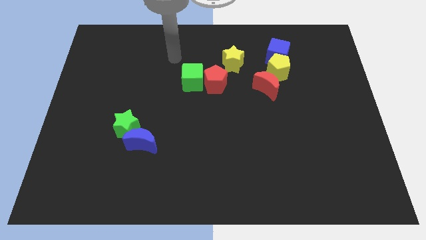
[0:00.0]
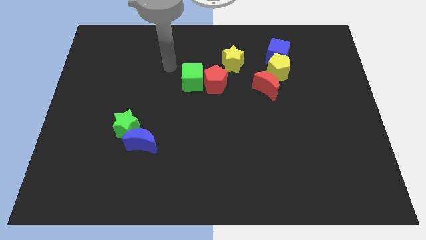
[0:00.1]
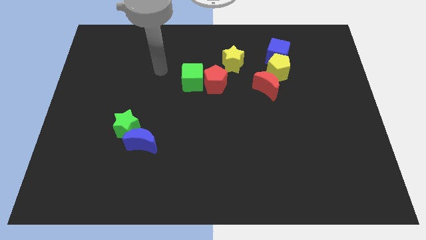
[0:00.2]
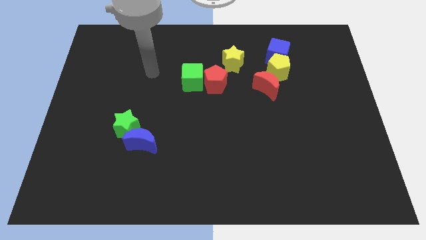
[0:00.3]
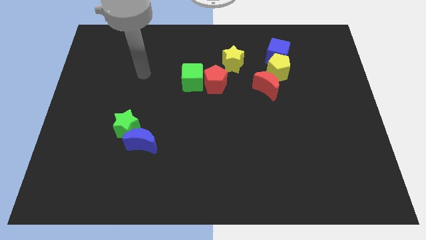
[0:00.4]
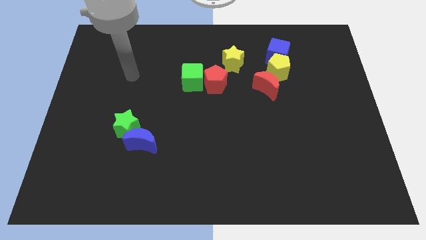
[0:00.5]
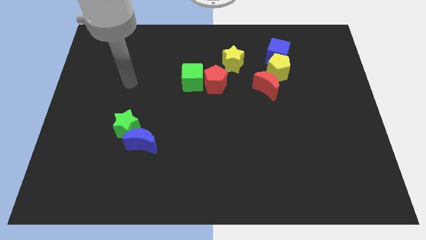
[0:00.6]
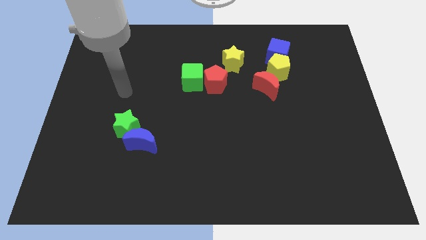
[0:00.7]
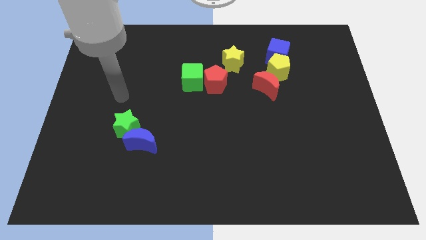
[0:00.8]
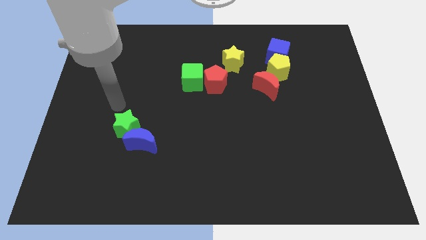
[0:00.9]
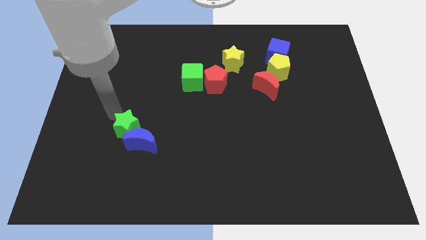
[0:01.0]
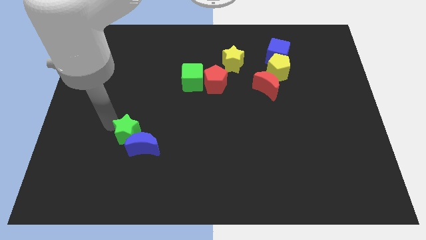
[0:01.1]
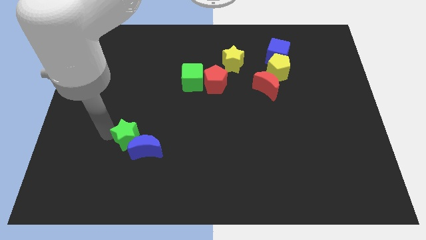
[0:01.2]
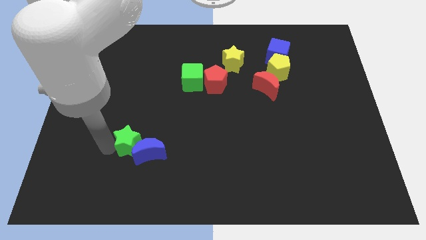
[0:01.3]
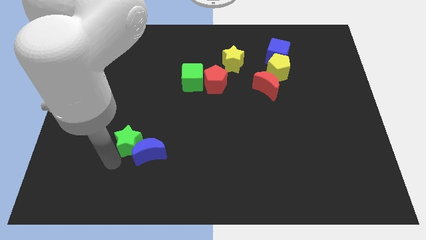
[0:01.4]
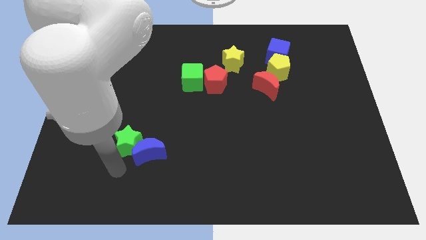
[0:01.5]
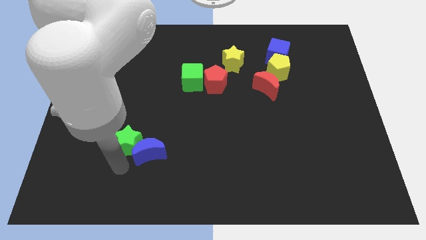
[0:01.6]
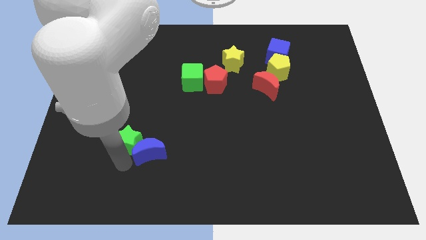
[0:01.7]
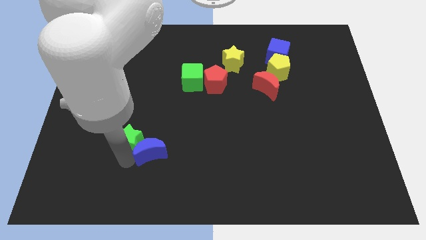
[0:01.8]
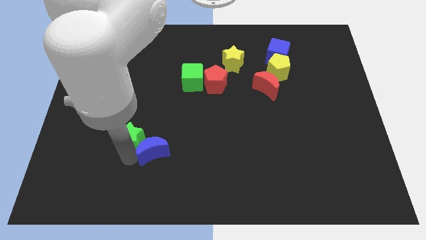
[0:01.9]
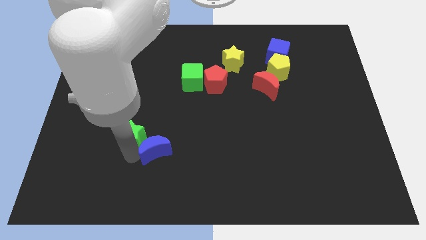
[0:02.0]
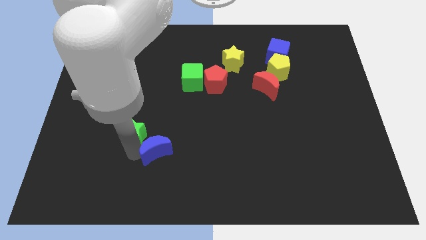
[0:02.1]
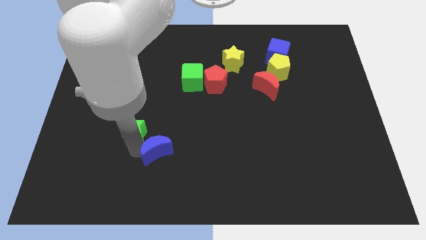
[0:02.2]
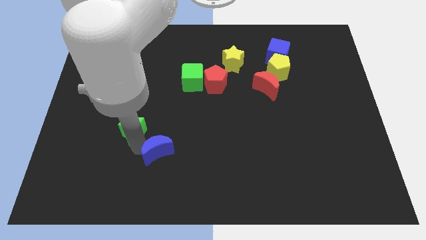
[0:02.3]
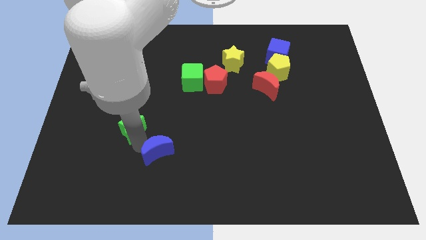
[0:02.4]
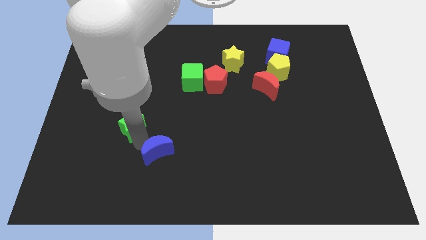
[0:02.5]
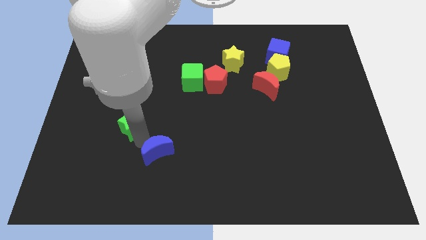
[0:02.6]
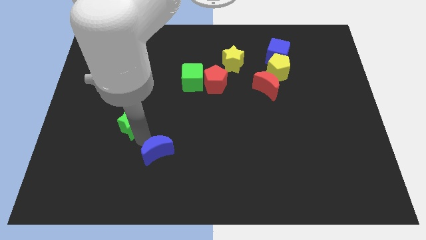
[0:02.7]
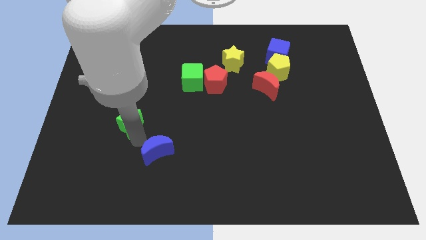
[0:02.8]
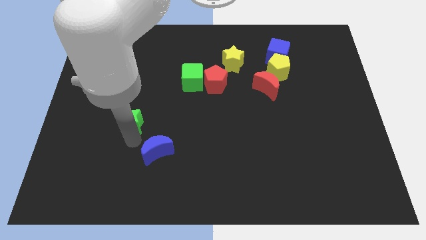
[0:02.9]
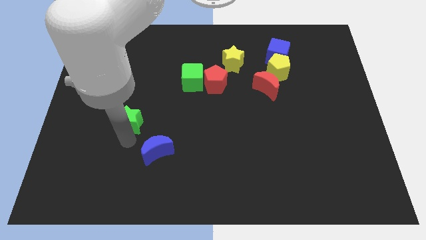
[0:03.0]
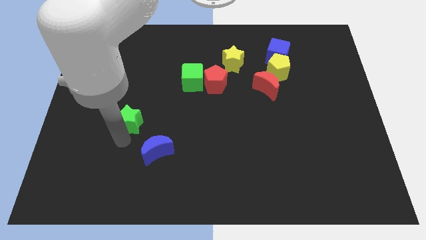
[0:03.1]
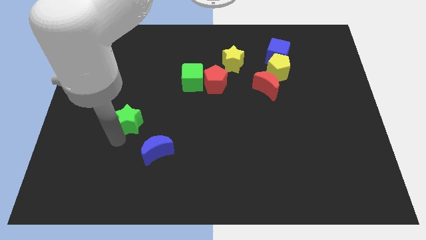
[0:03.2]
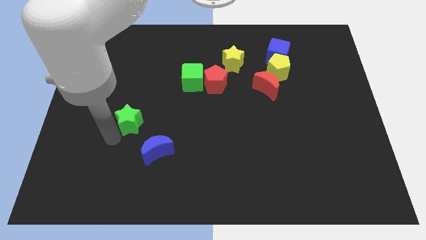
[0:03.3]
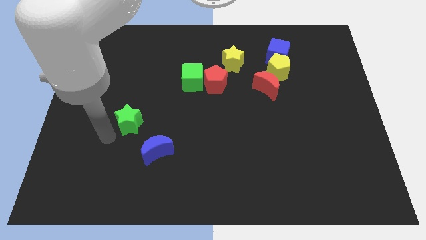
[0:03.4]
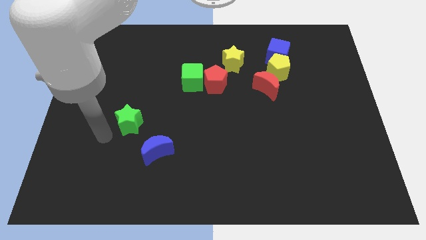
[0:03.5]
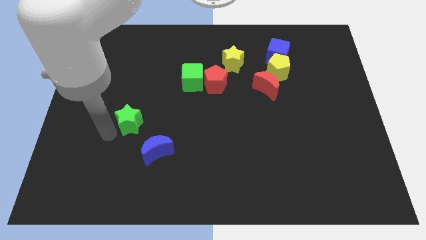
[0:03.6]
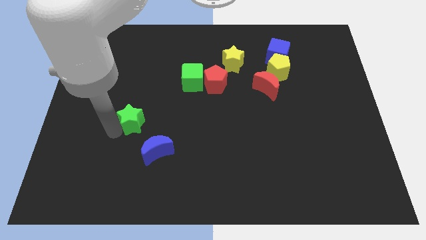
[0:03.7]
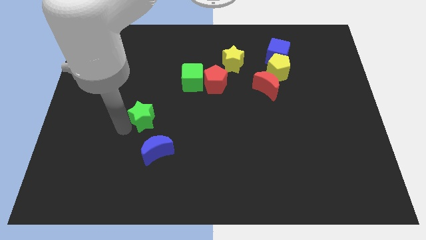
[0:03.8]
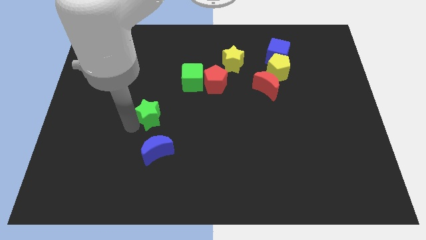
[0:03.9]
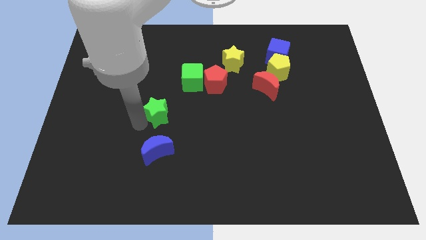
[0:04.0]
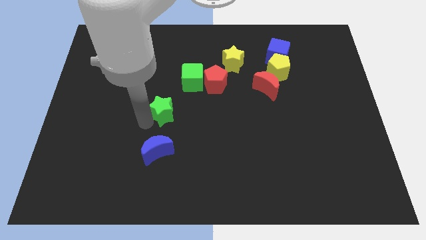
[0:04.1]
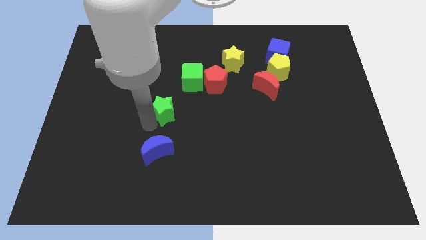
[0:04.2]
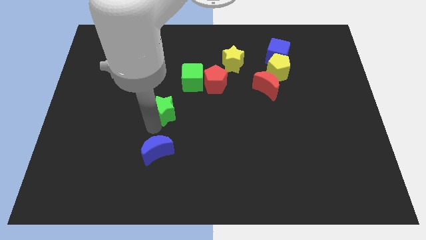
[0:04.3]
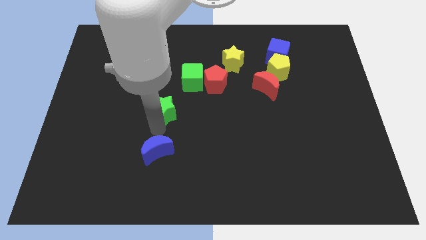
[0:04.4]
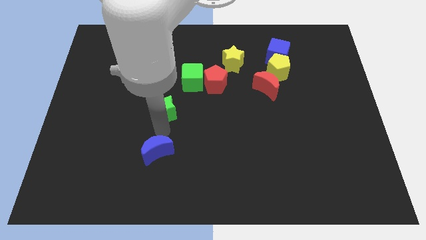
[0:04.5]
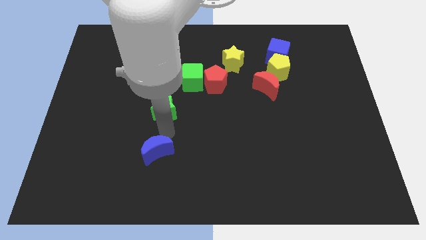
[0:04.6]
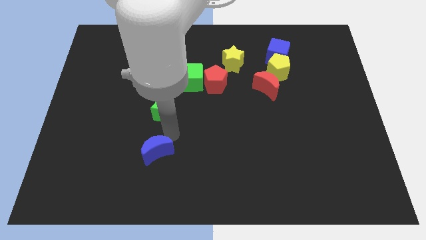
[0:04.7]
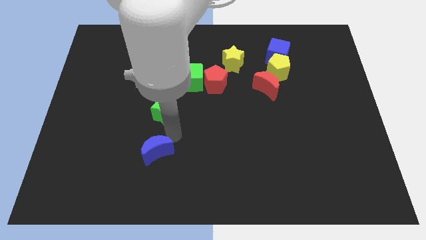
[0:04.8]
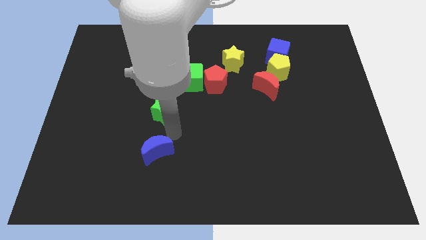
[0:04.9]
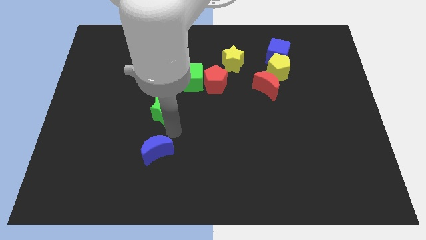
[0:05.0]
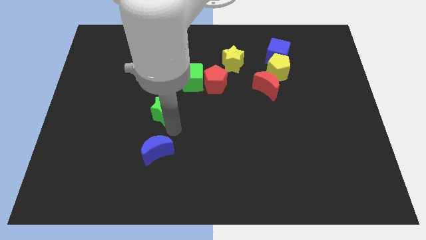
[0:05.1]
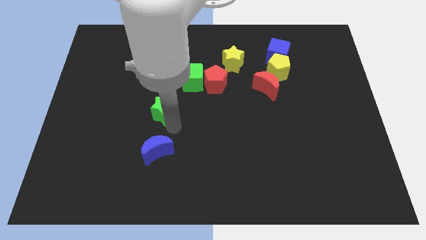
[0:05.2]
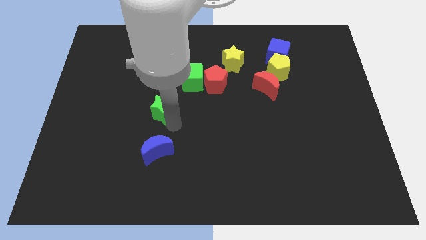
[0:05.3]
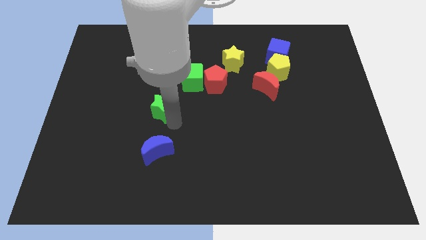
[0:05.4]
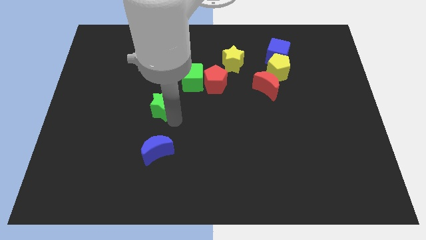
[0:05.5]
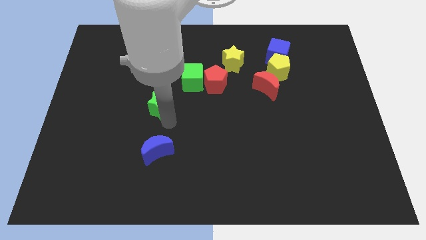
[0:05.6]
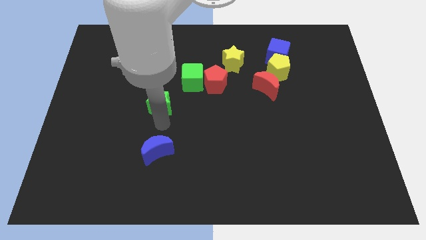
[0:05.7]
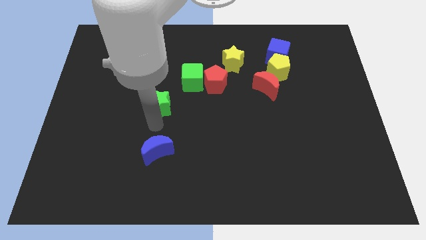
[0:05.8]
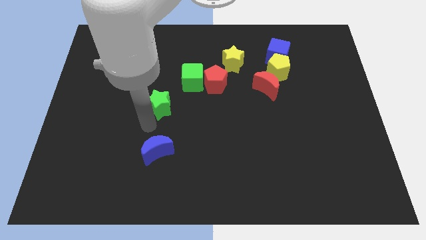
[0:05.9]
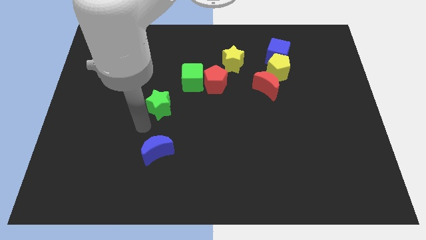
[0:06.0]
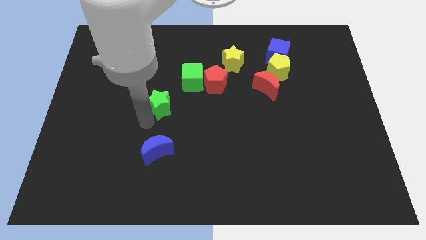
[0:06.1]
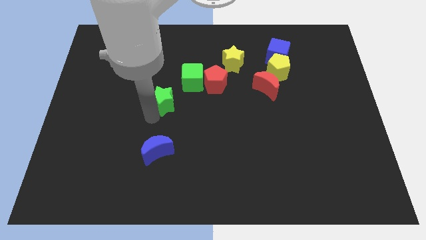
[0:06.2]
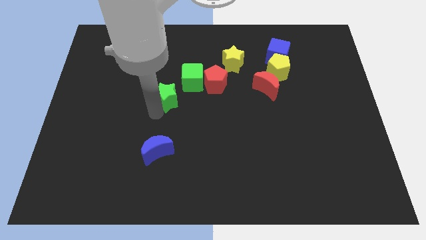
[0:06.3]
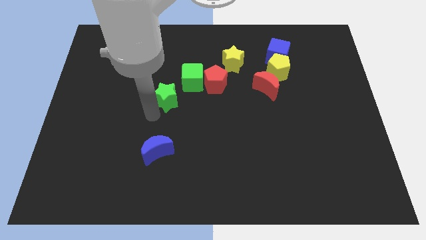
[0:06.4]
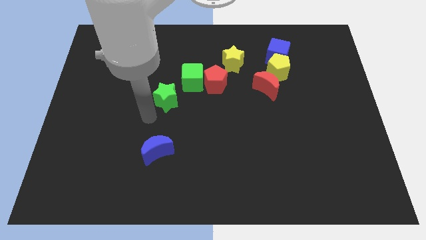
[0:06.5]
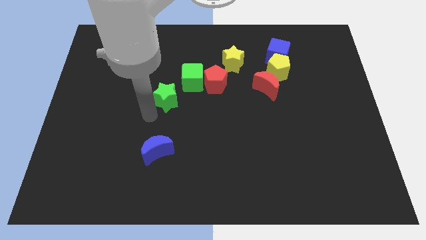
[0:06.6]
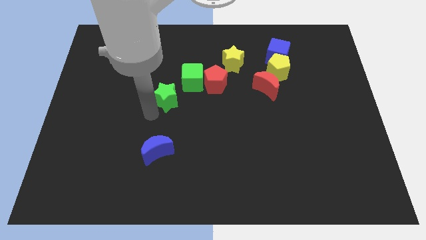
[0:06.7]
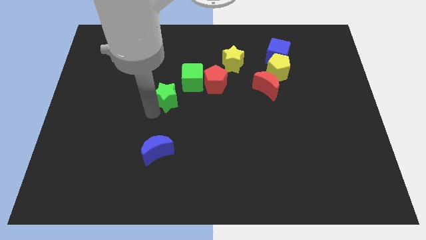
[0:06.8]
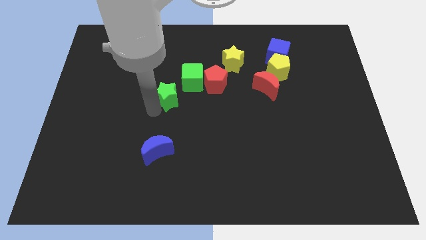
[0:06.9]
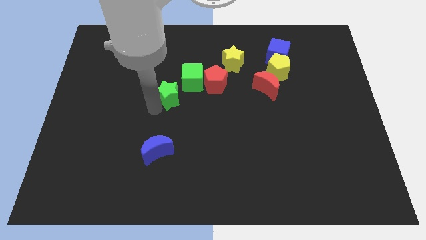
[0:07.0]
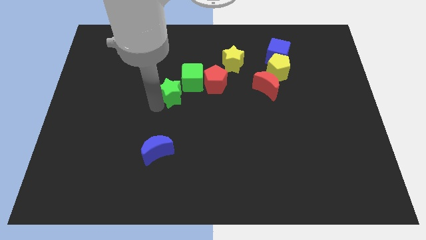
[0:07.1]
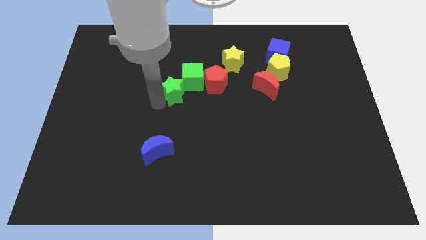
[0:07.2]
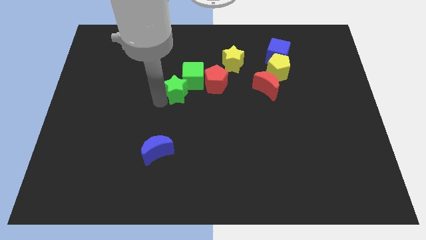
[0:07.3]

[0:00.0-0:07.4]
slide the green star to the green cube

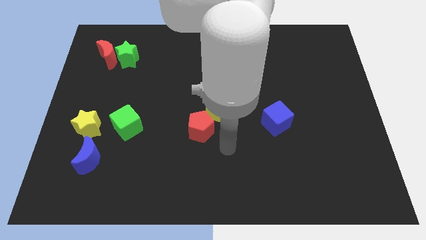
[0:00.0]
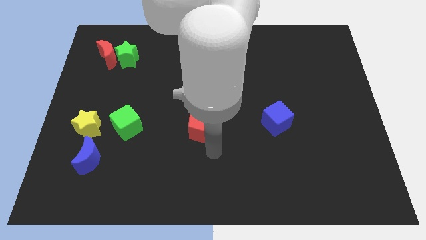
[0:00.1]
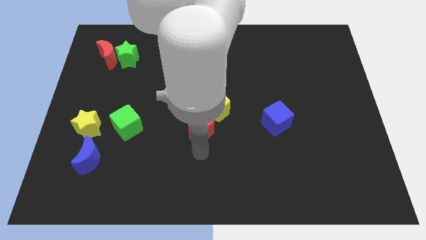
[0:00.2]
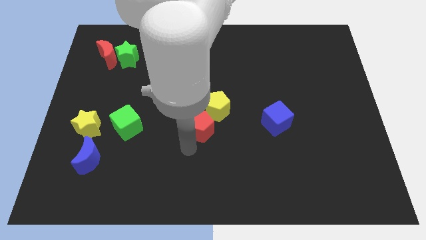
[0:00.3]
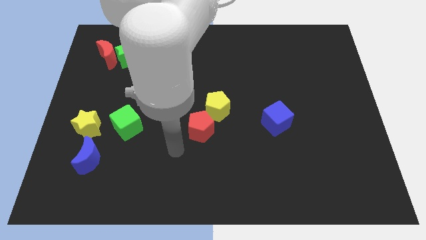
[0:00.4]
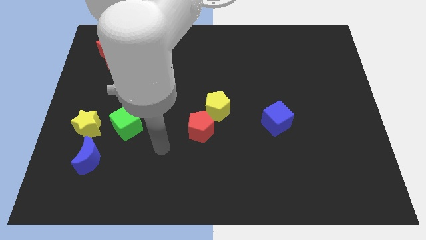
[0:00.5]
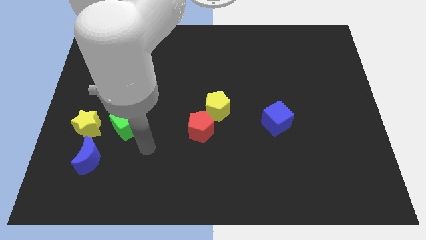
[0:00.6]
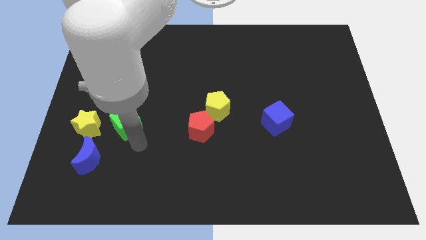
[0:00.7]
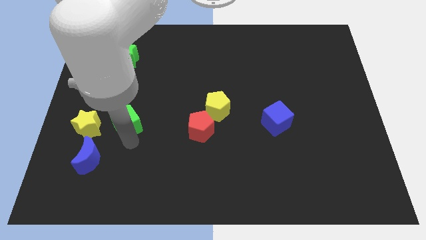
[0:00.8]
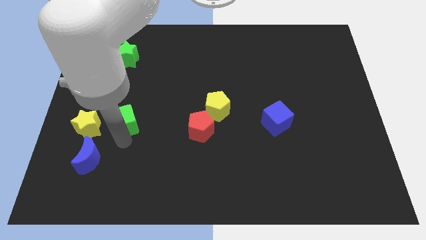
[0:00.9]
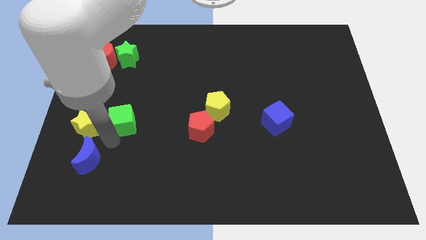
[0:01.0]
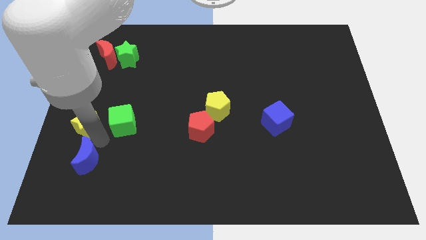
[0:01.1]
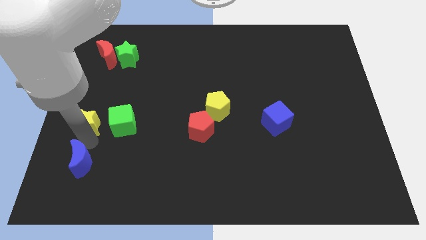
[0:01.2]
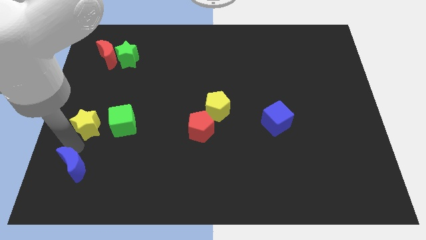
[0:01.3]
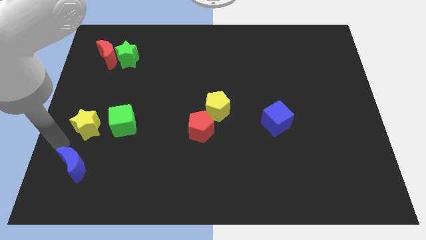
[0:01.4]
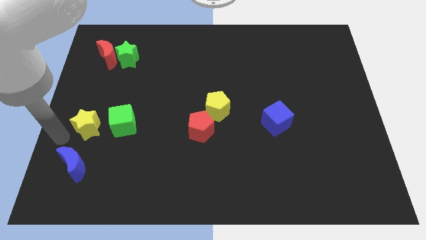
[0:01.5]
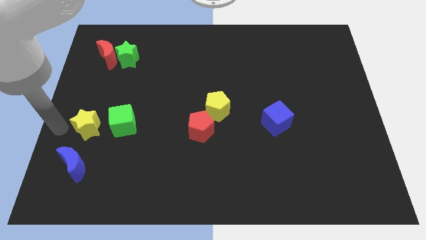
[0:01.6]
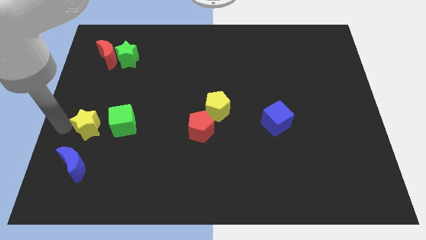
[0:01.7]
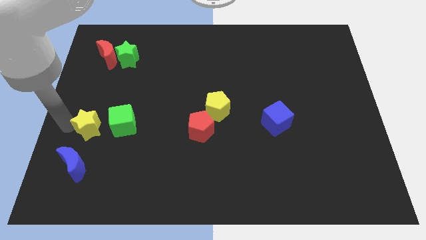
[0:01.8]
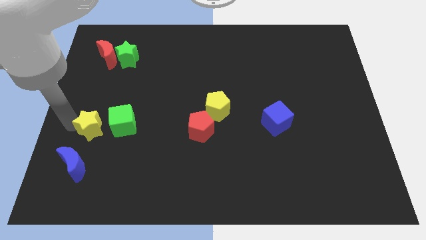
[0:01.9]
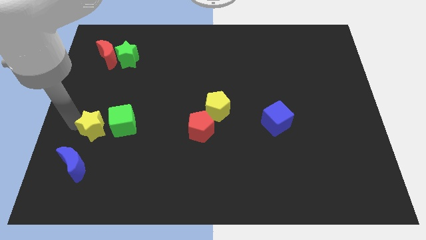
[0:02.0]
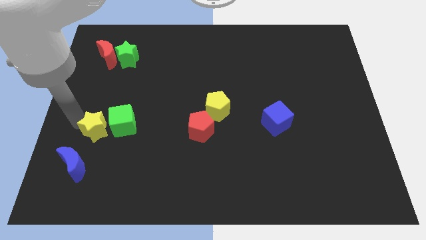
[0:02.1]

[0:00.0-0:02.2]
push the yellow star next to the green cube
